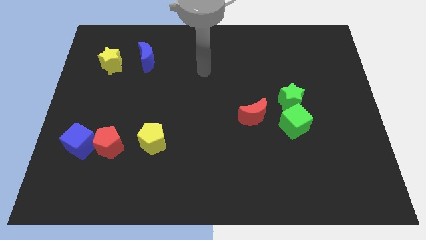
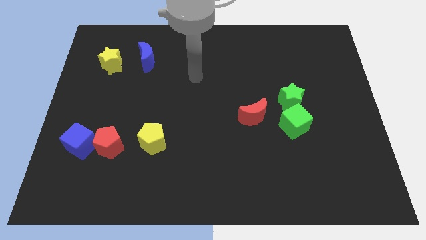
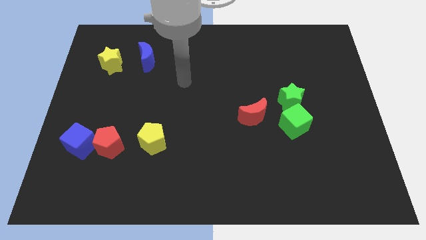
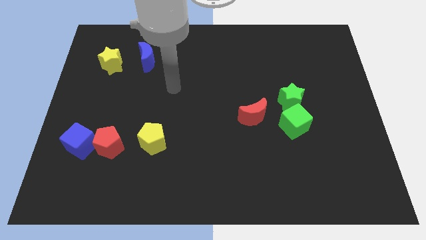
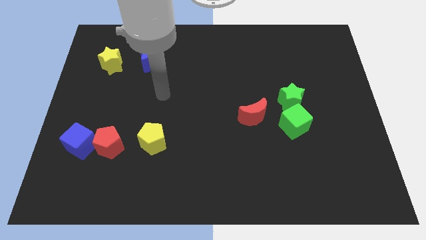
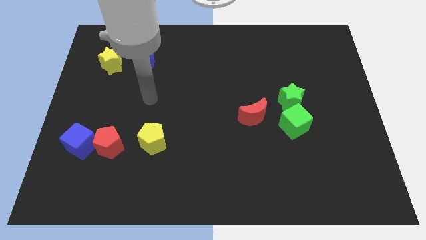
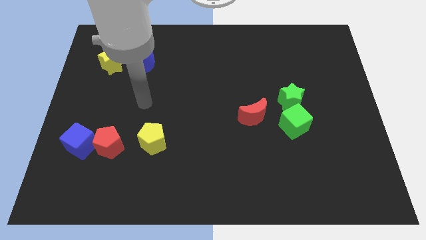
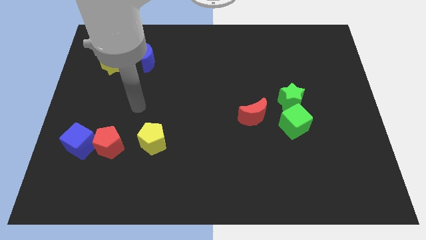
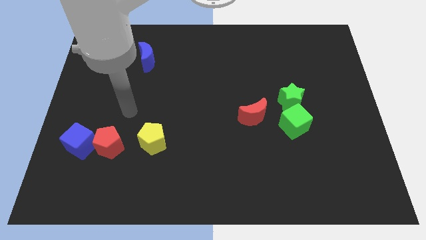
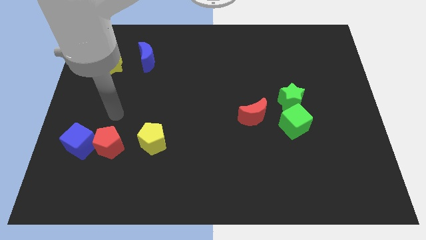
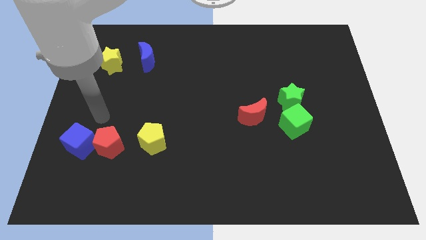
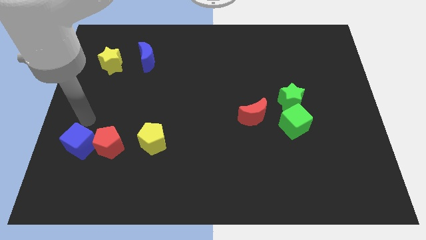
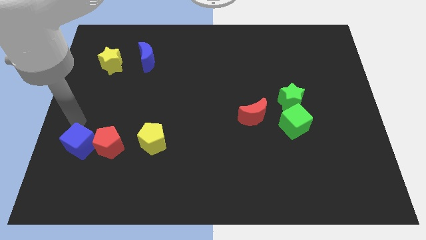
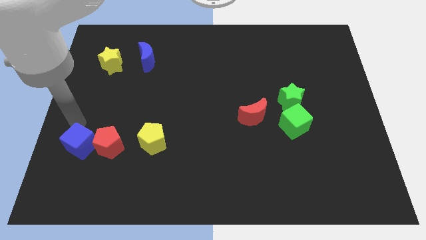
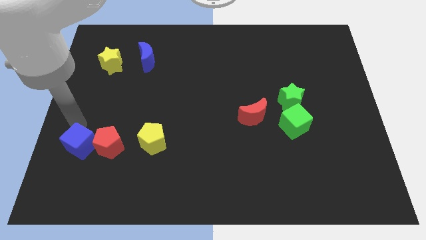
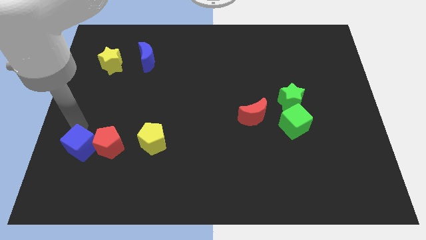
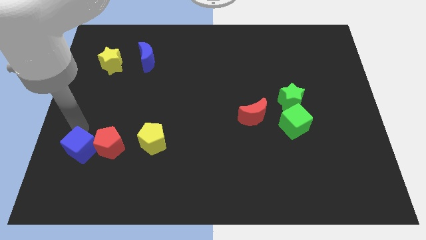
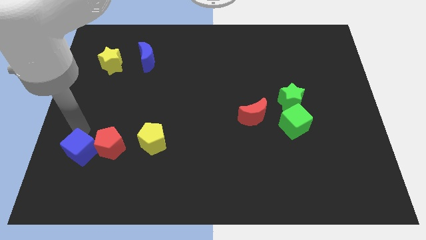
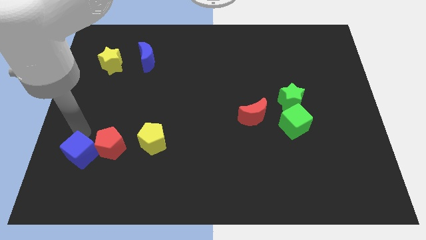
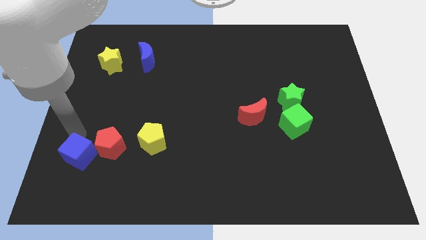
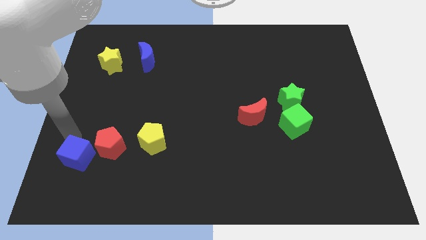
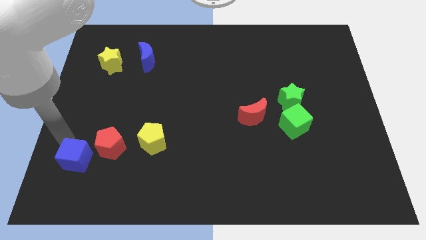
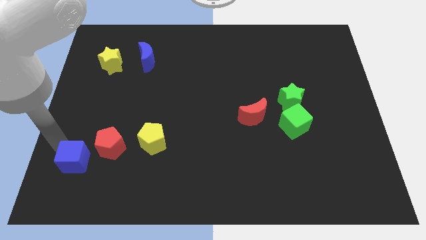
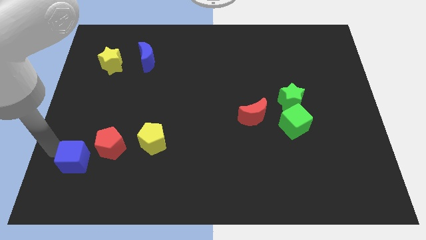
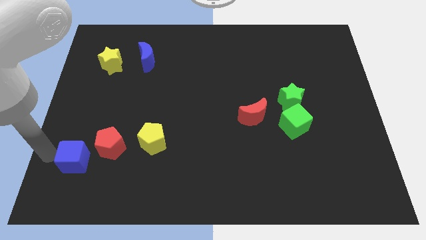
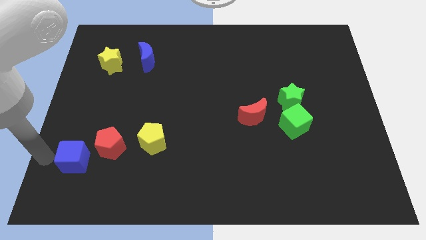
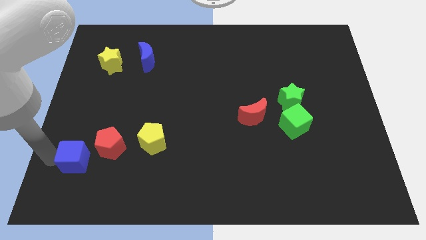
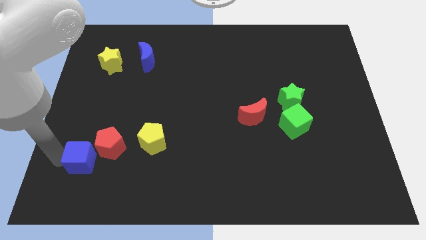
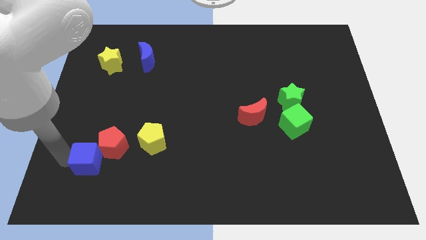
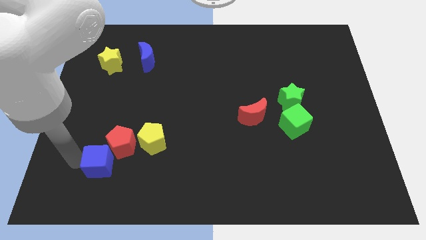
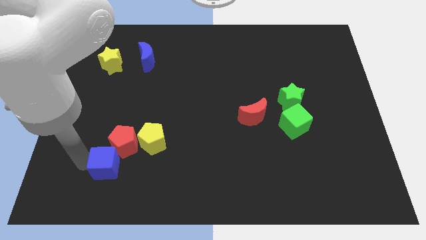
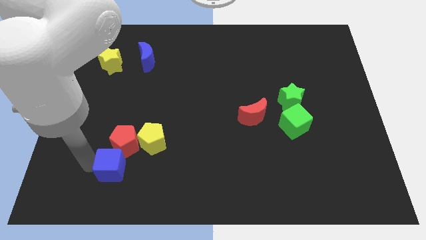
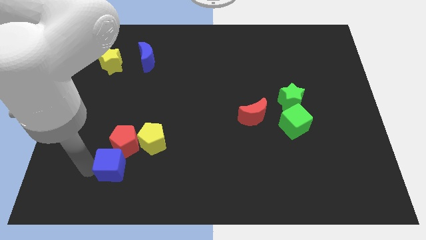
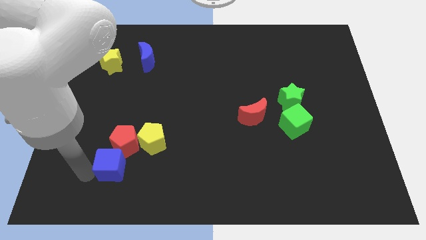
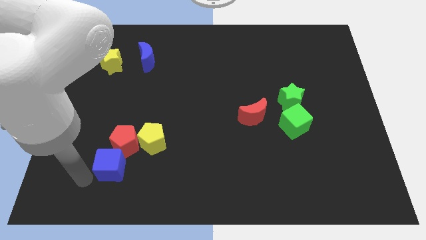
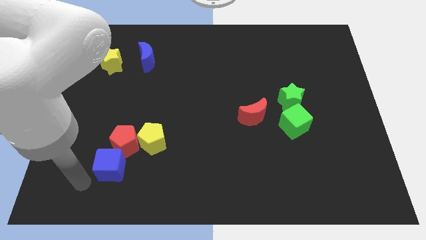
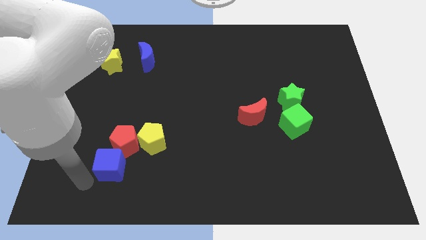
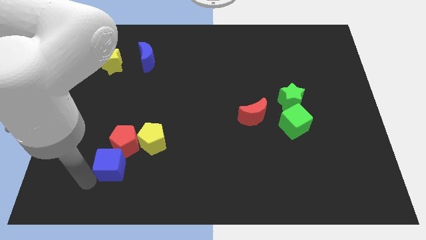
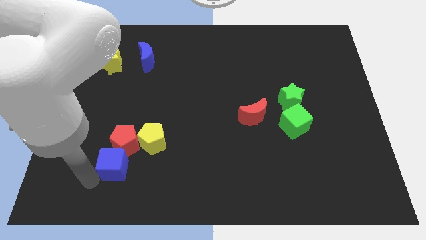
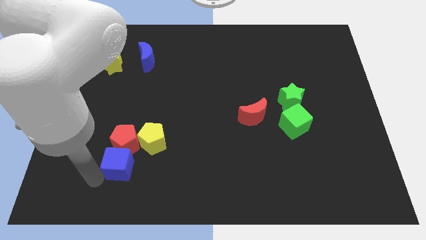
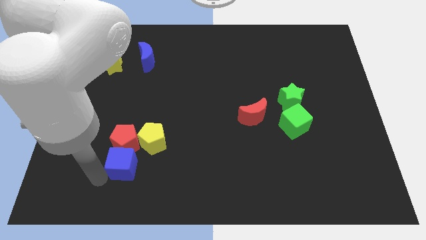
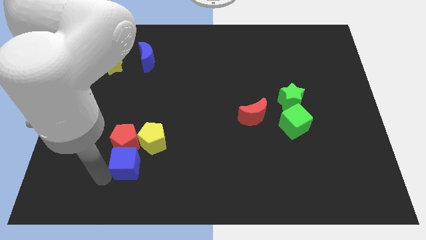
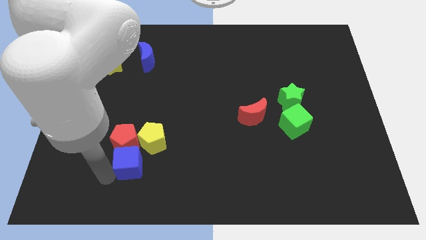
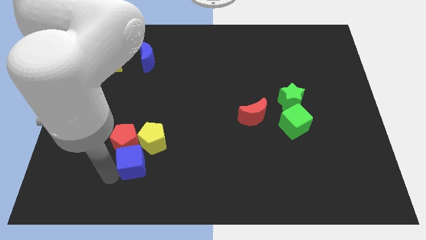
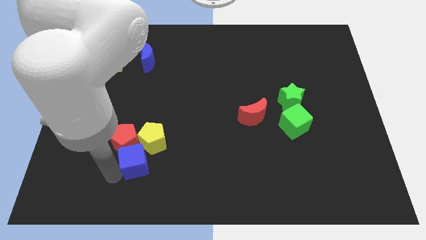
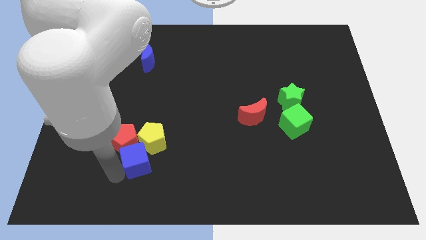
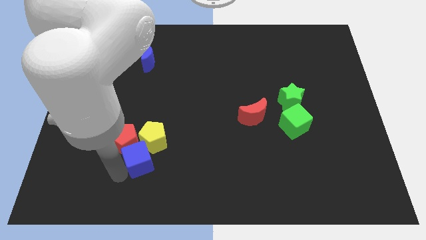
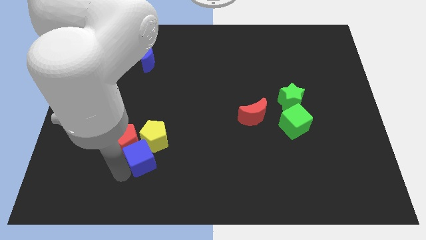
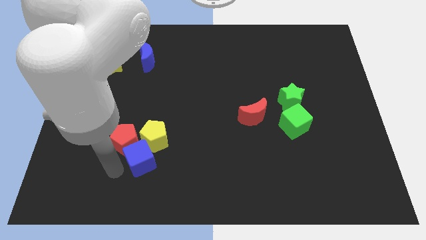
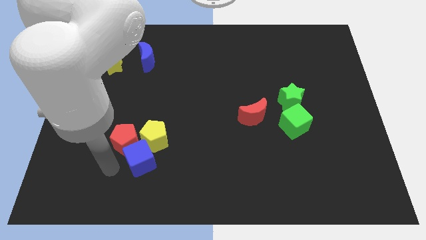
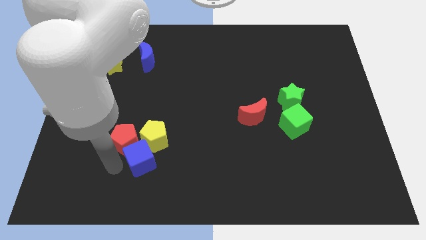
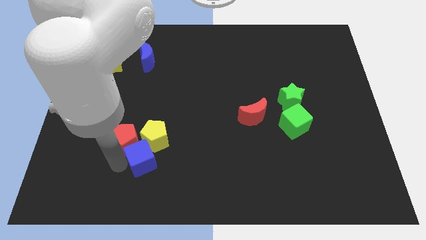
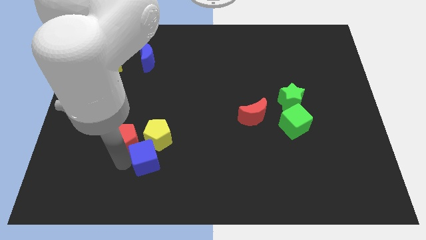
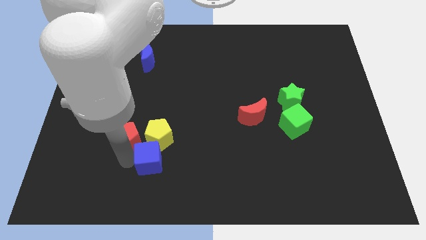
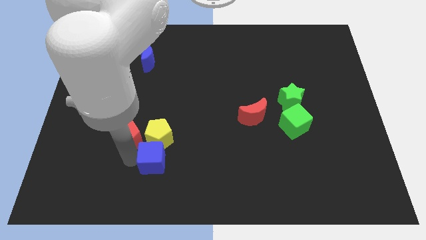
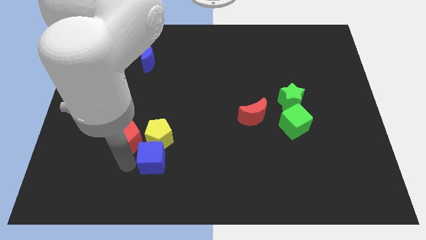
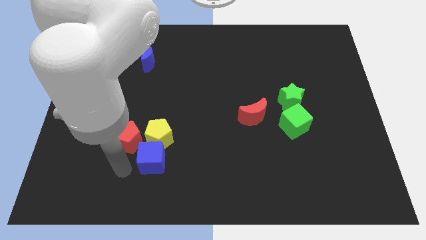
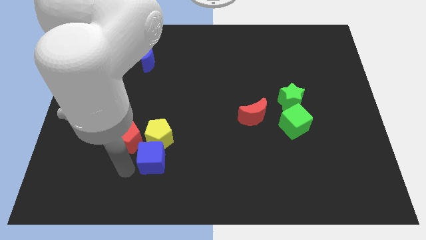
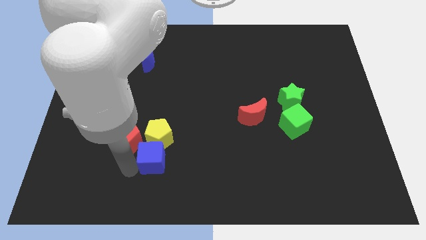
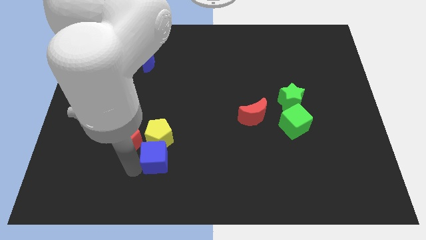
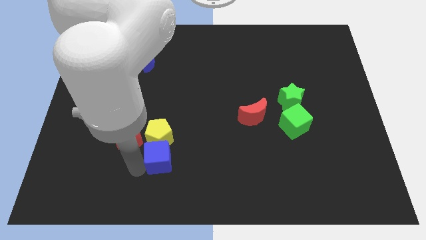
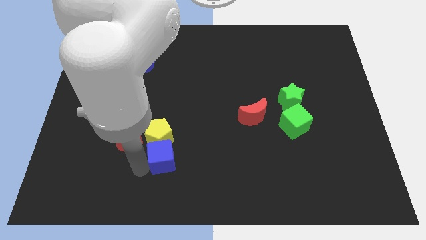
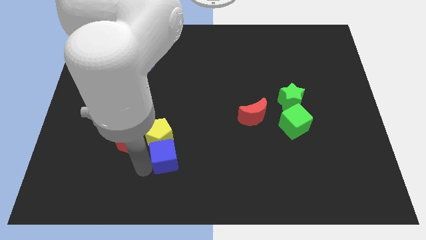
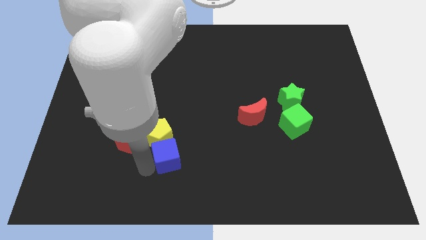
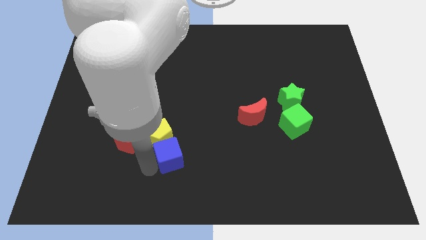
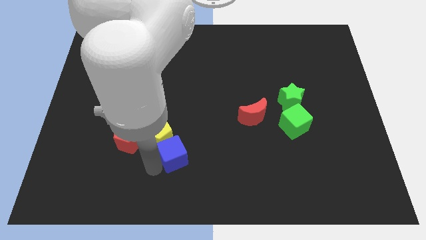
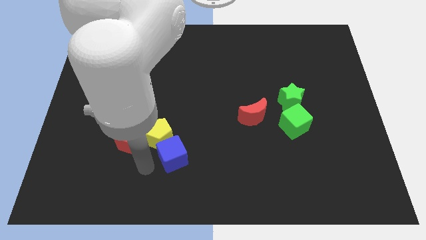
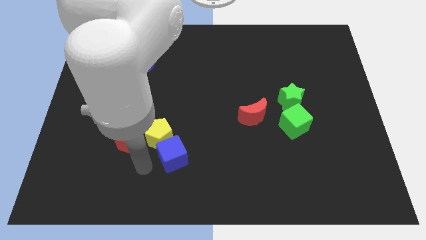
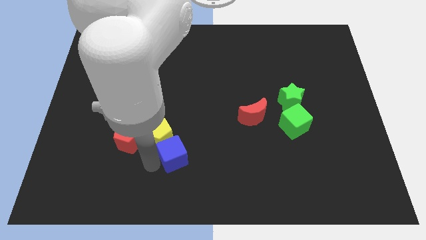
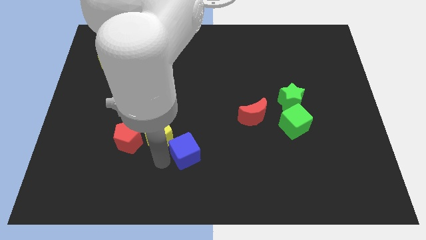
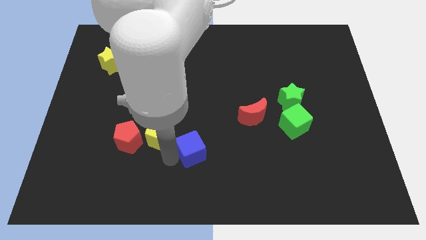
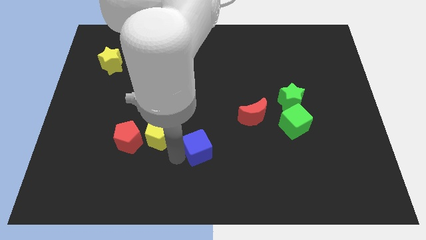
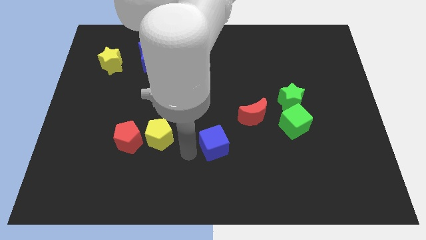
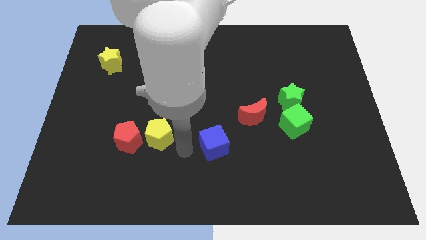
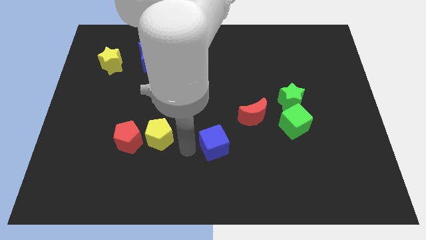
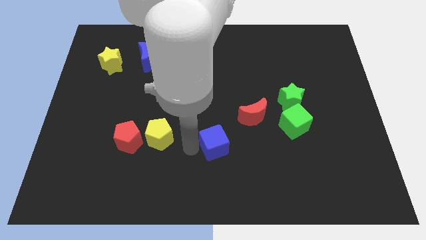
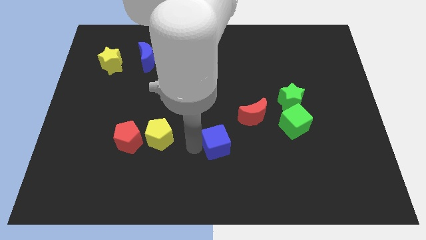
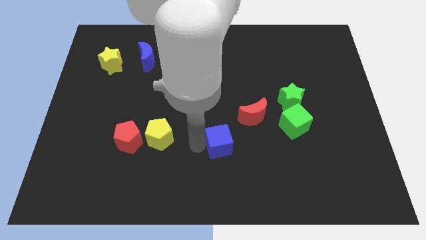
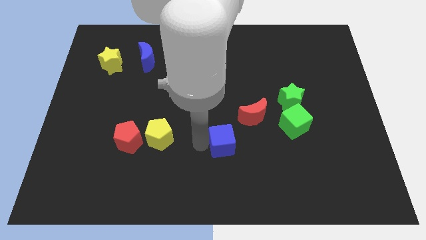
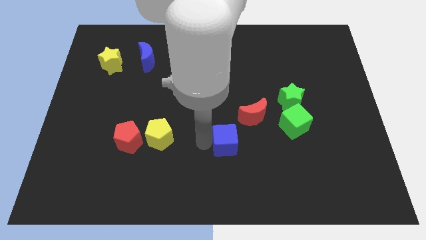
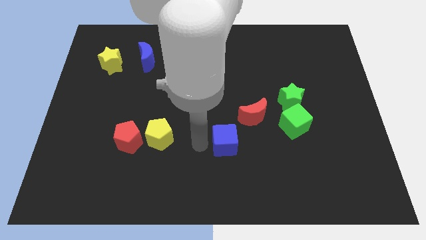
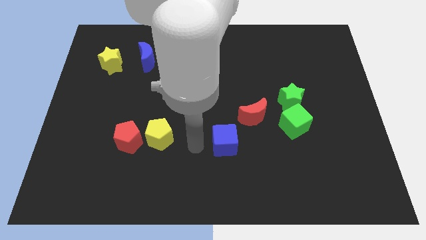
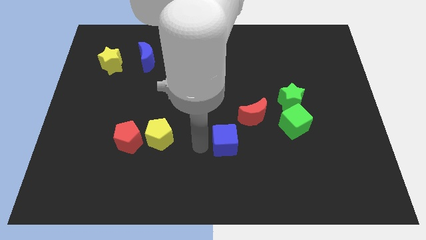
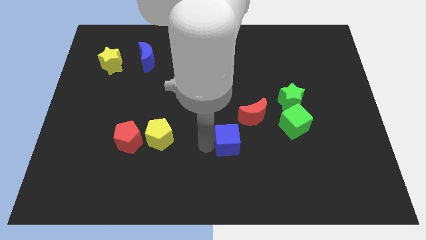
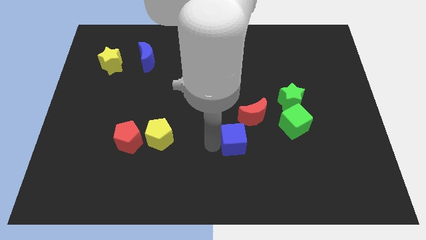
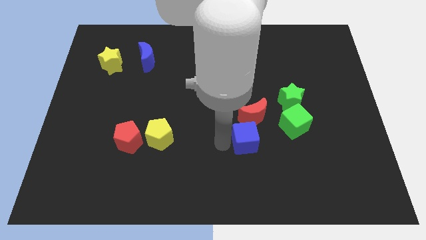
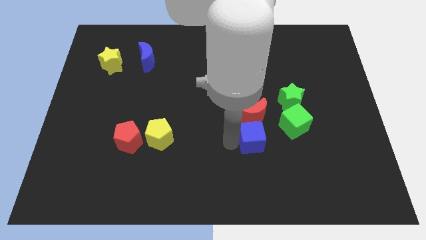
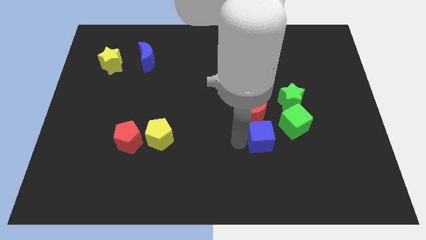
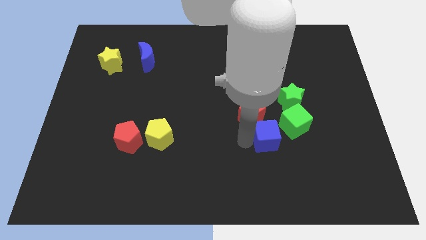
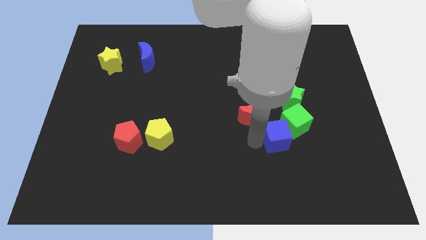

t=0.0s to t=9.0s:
push the blue cube towards the green cube
